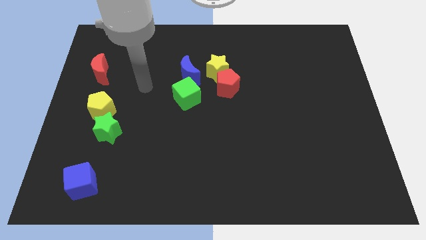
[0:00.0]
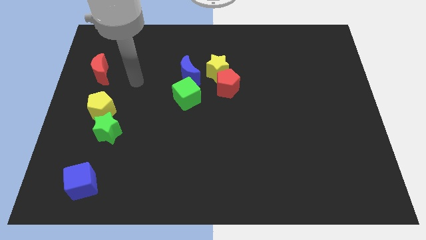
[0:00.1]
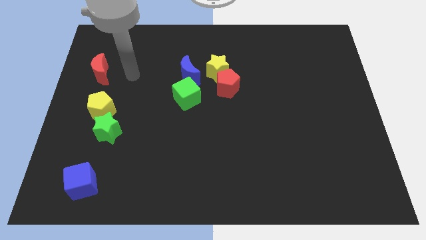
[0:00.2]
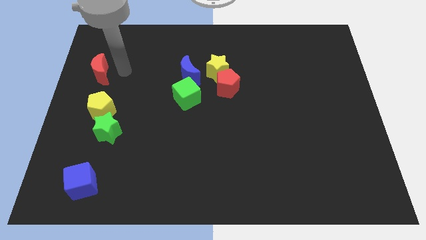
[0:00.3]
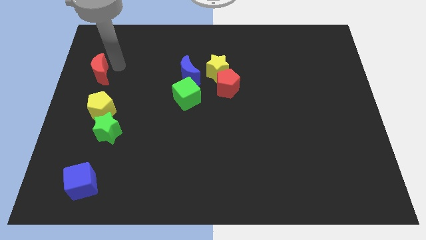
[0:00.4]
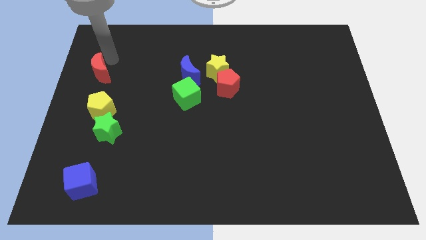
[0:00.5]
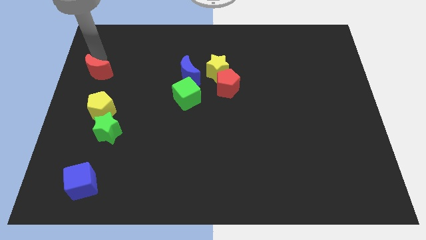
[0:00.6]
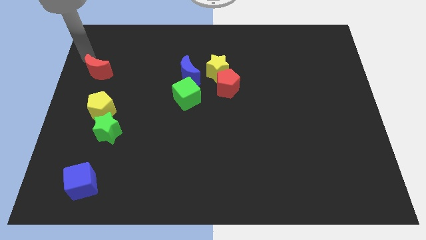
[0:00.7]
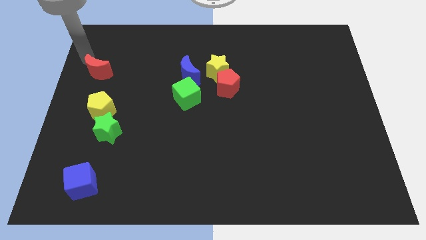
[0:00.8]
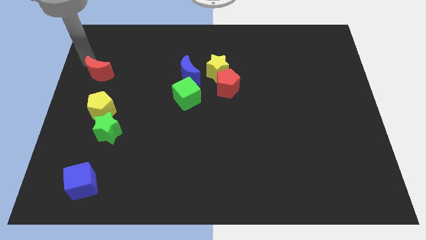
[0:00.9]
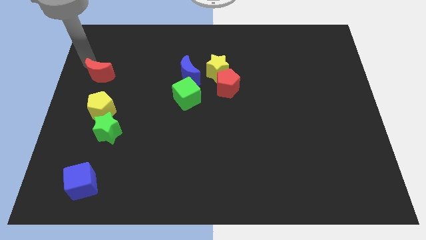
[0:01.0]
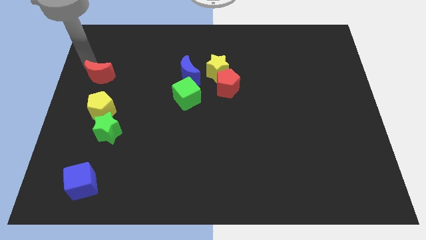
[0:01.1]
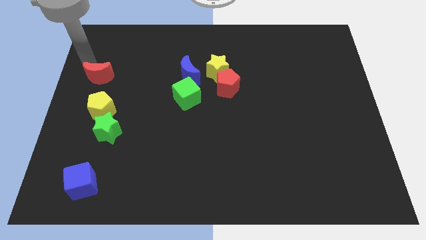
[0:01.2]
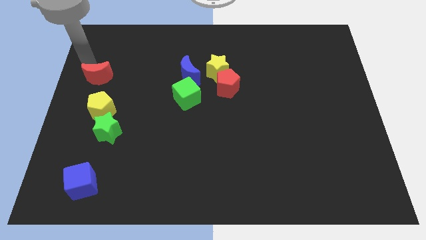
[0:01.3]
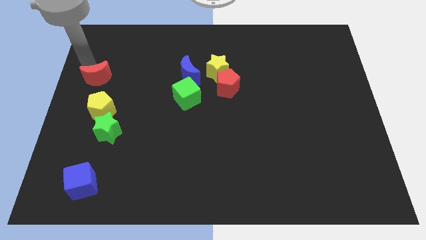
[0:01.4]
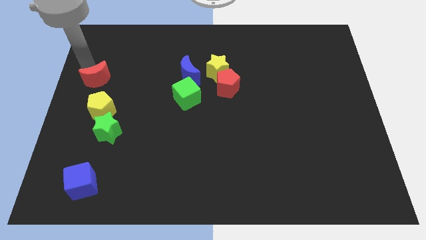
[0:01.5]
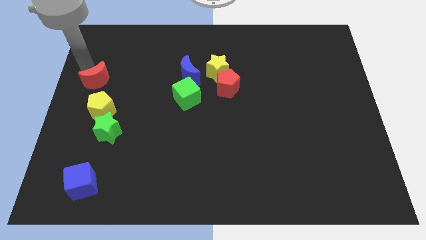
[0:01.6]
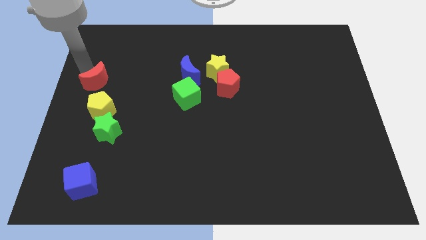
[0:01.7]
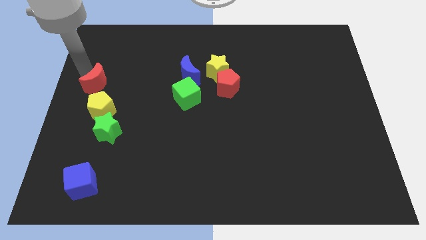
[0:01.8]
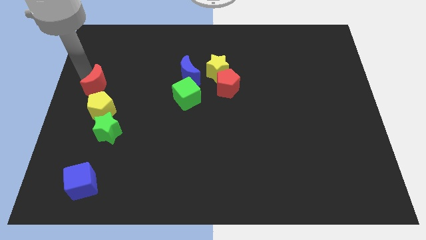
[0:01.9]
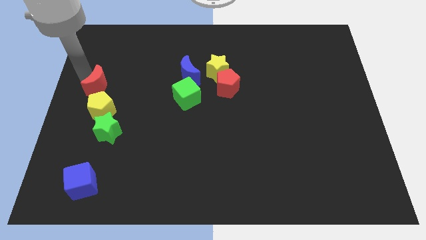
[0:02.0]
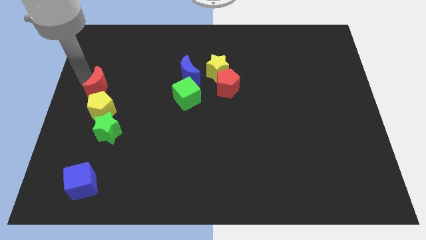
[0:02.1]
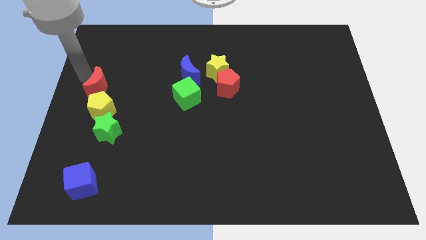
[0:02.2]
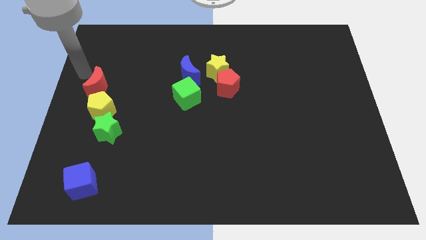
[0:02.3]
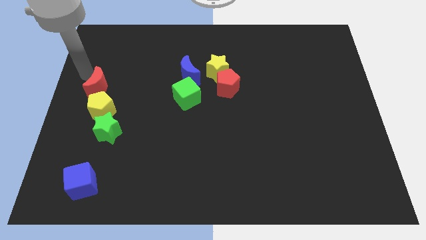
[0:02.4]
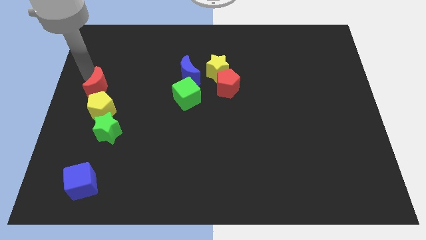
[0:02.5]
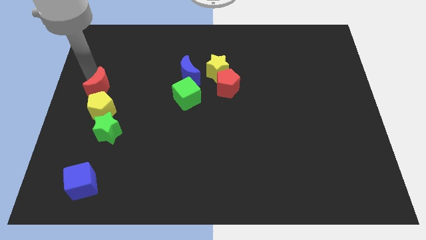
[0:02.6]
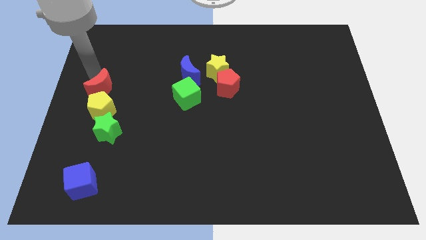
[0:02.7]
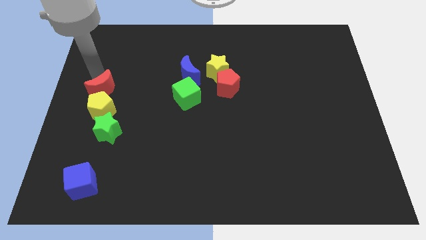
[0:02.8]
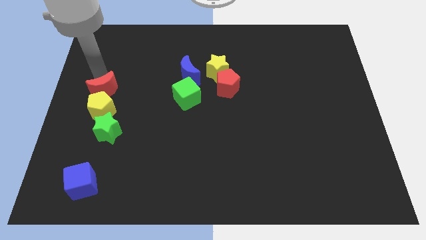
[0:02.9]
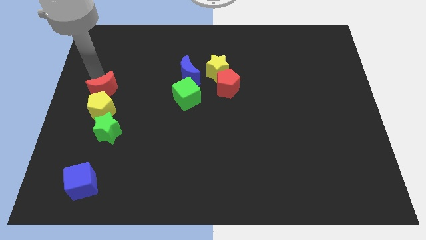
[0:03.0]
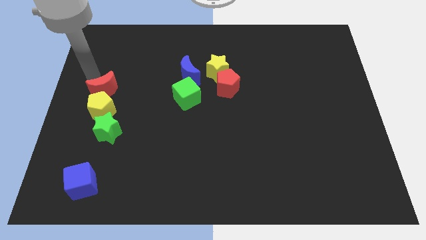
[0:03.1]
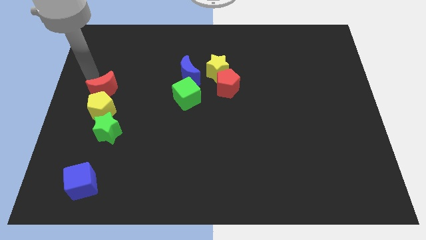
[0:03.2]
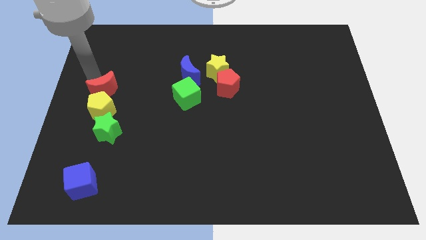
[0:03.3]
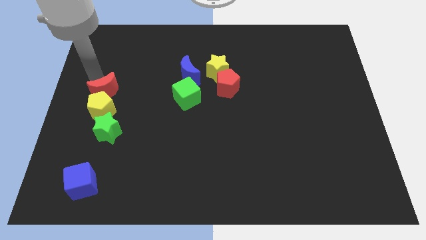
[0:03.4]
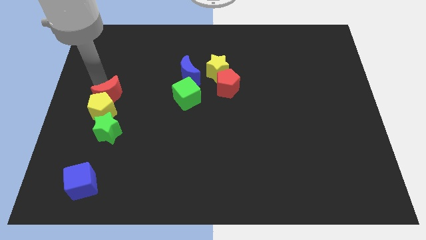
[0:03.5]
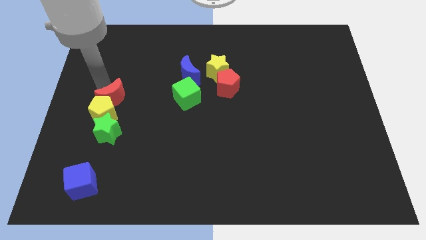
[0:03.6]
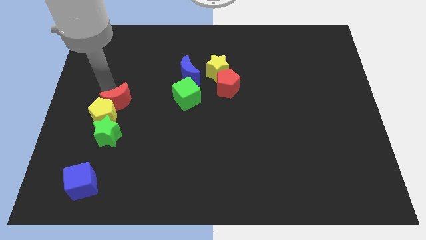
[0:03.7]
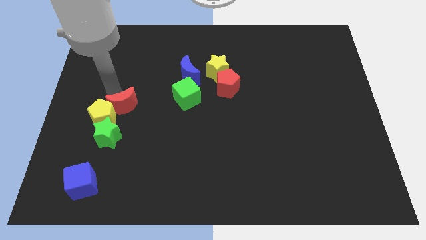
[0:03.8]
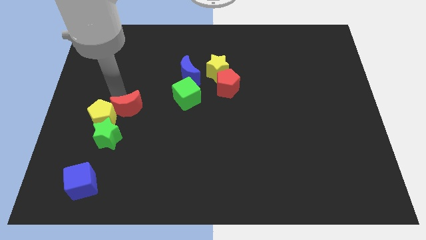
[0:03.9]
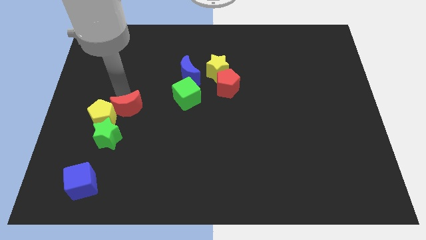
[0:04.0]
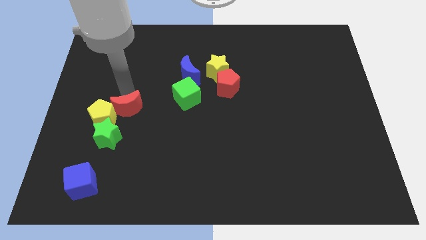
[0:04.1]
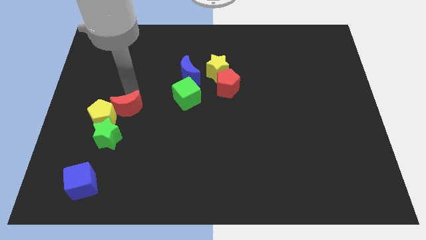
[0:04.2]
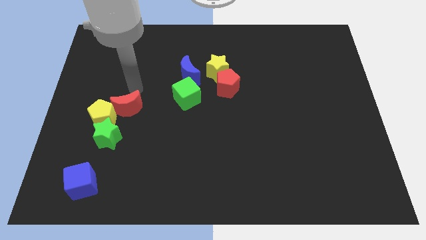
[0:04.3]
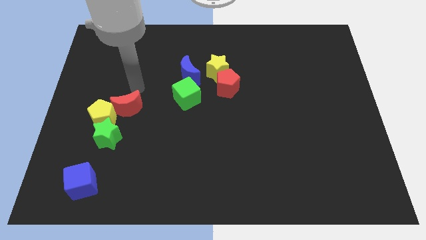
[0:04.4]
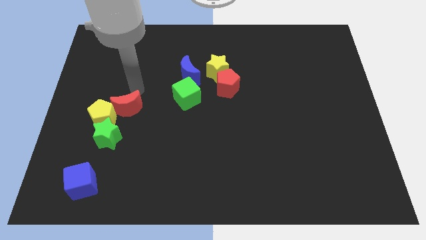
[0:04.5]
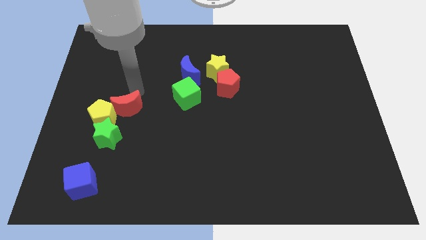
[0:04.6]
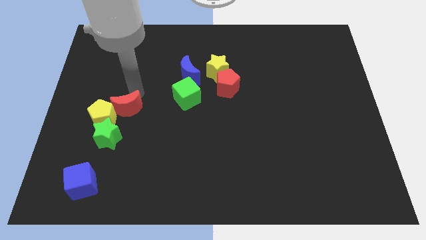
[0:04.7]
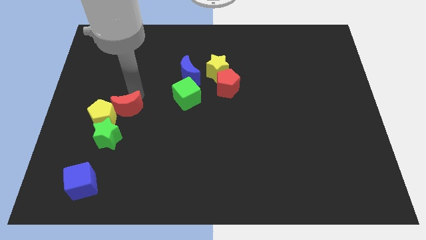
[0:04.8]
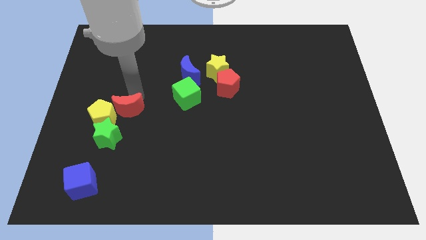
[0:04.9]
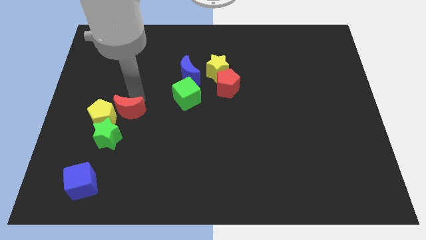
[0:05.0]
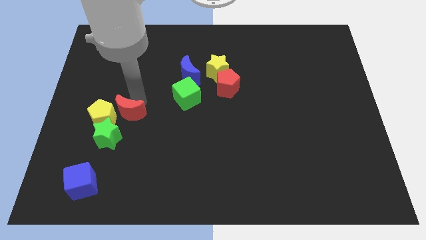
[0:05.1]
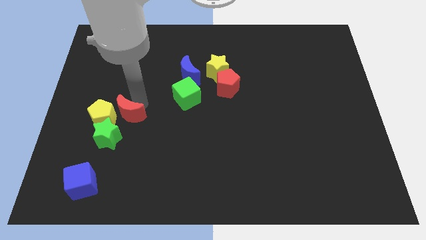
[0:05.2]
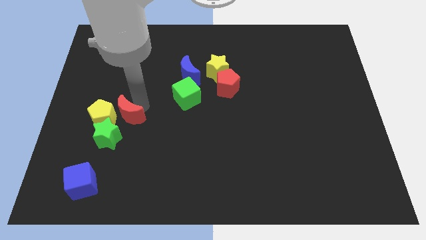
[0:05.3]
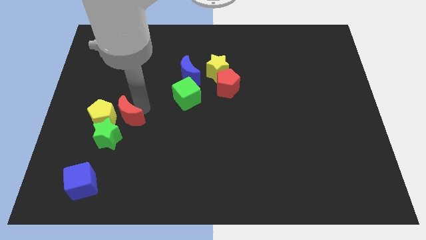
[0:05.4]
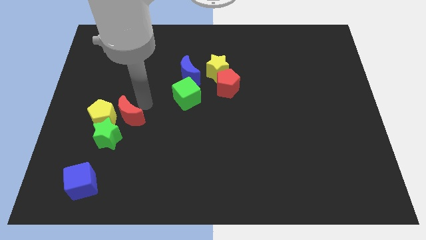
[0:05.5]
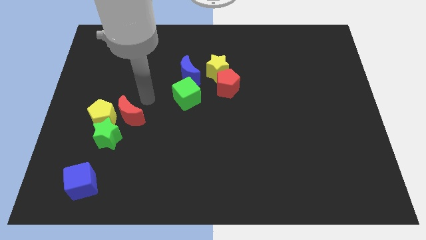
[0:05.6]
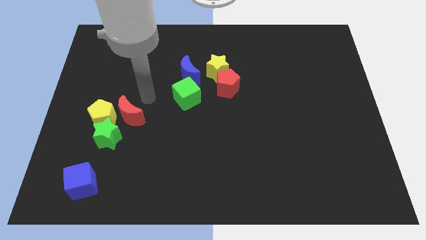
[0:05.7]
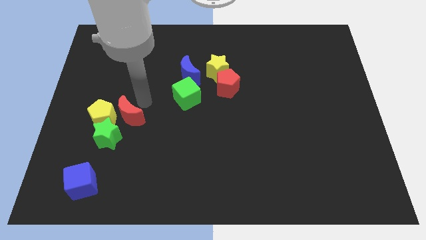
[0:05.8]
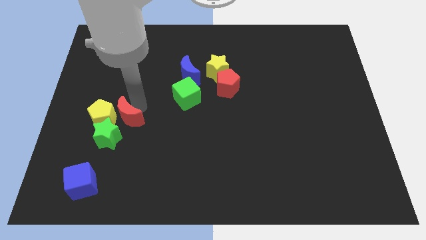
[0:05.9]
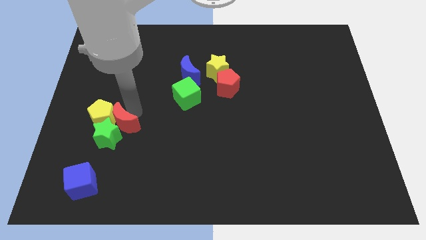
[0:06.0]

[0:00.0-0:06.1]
put the red moon close to the green star

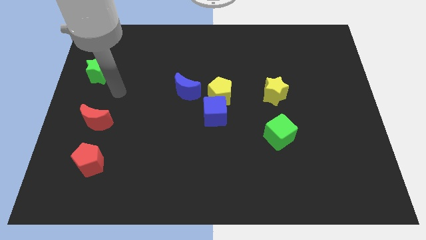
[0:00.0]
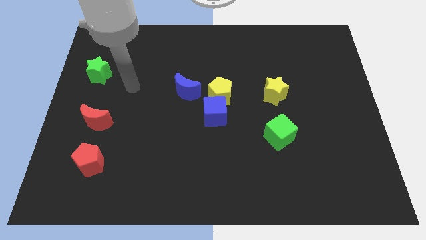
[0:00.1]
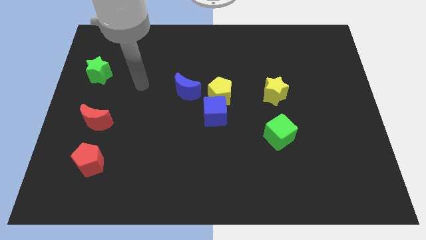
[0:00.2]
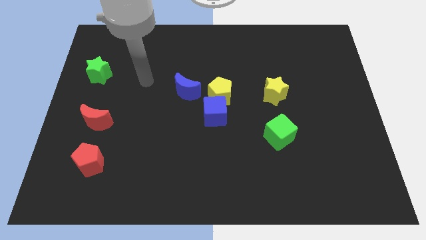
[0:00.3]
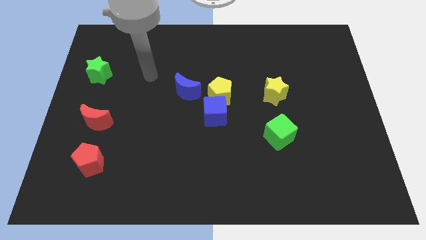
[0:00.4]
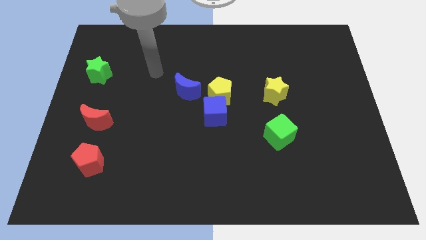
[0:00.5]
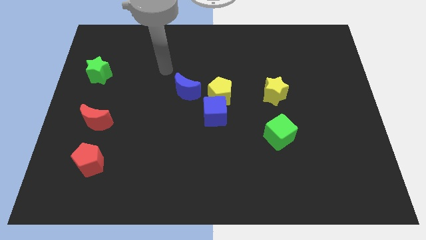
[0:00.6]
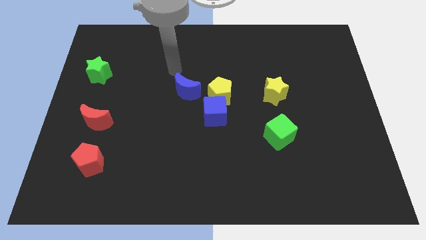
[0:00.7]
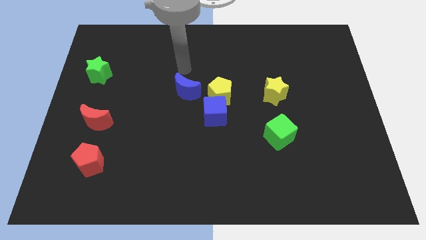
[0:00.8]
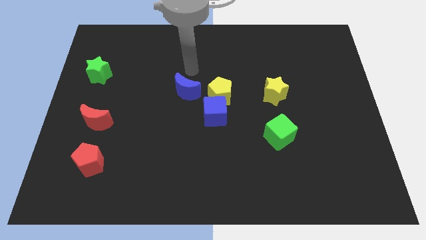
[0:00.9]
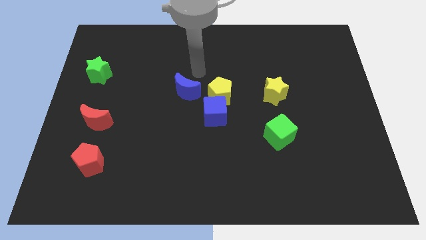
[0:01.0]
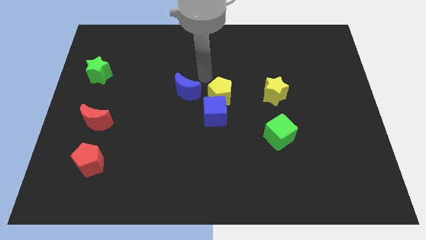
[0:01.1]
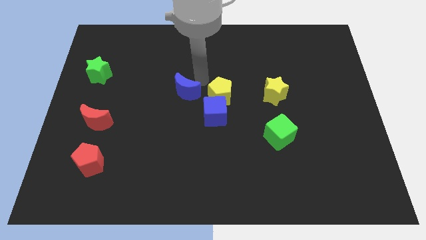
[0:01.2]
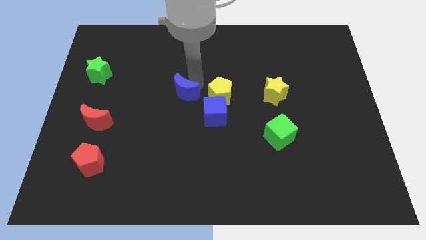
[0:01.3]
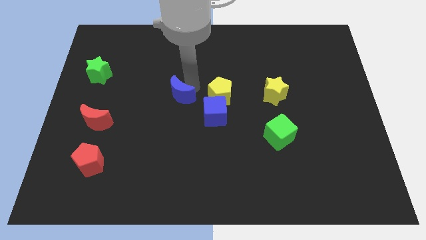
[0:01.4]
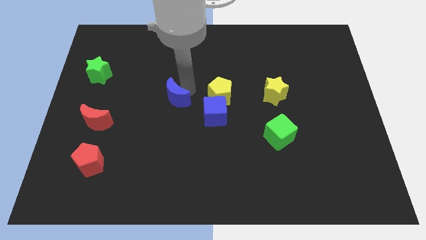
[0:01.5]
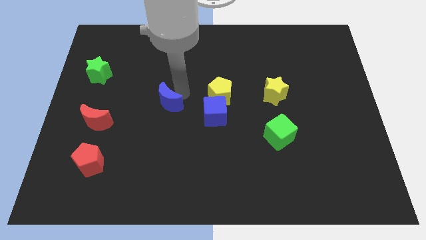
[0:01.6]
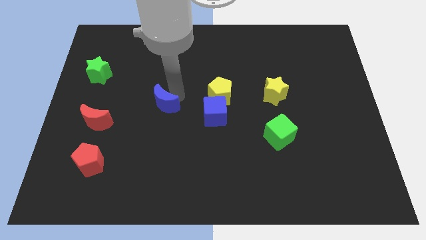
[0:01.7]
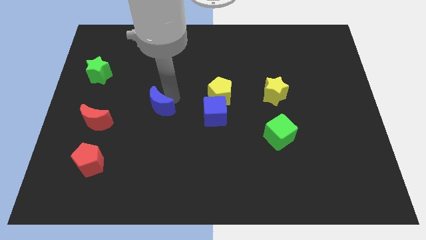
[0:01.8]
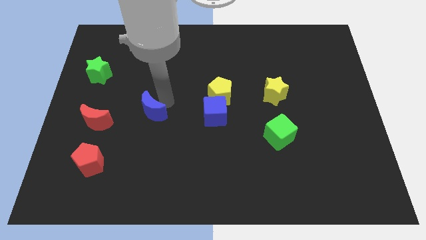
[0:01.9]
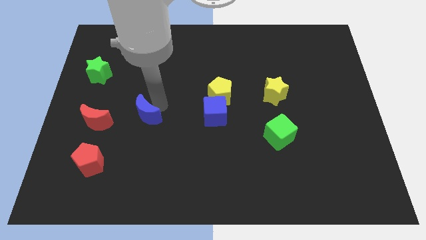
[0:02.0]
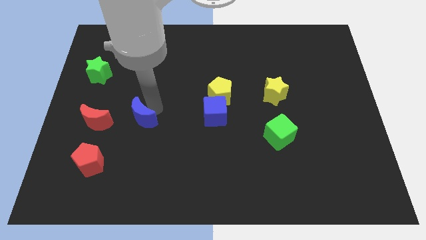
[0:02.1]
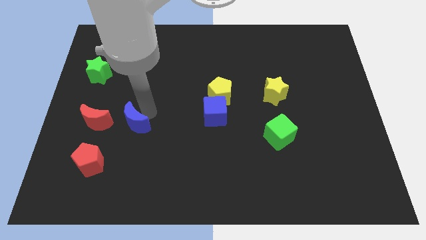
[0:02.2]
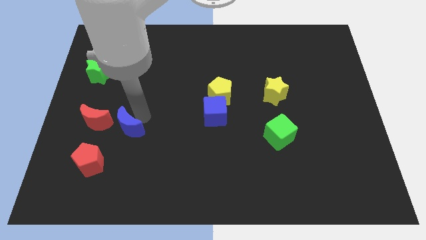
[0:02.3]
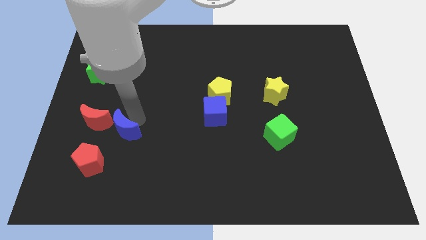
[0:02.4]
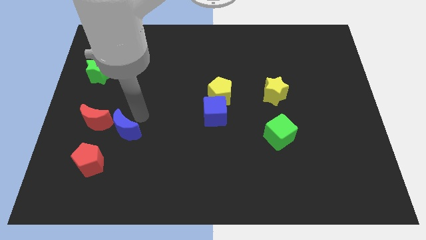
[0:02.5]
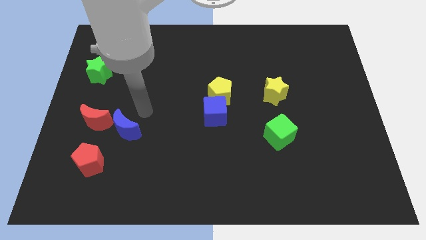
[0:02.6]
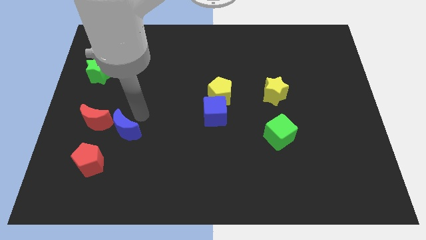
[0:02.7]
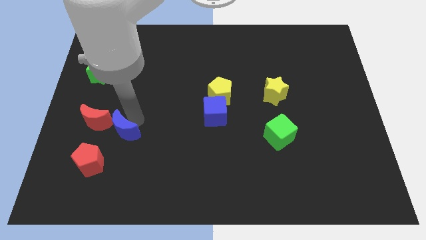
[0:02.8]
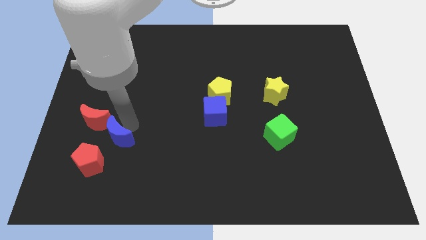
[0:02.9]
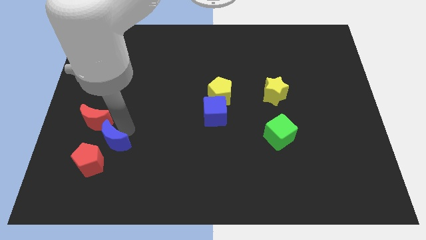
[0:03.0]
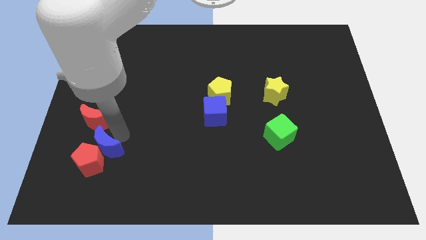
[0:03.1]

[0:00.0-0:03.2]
put the blue moon next to the red pentagon
